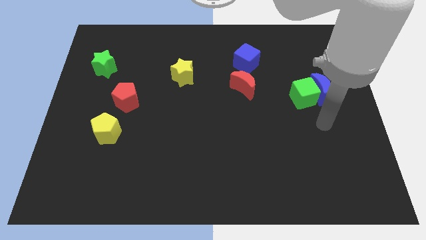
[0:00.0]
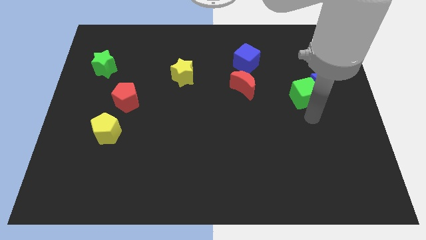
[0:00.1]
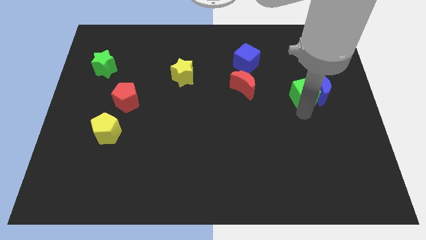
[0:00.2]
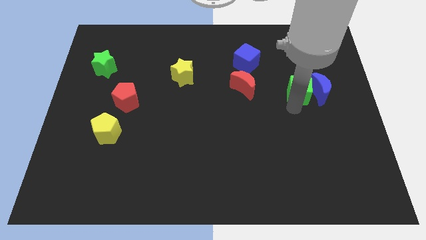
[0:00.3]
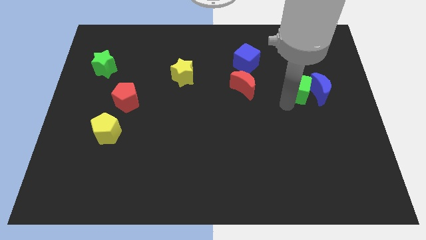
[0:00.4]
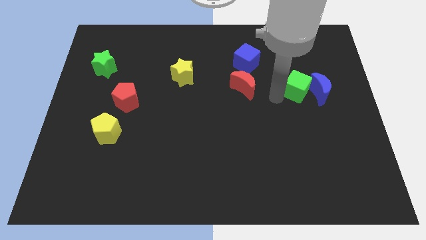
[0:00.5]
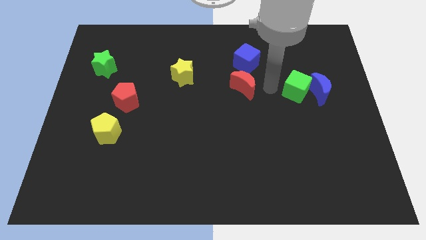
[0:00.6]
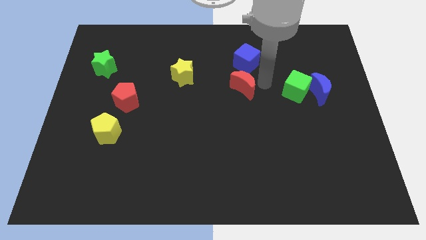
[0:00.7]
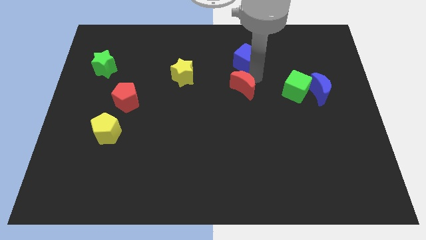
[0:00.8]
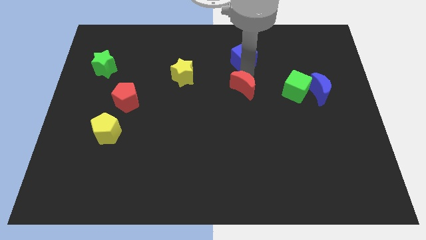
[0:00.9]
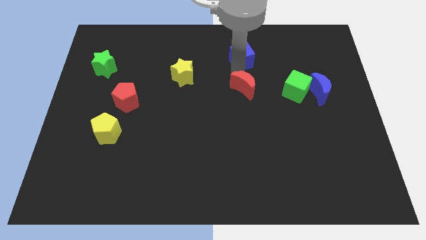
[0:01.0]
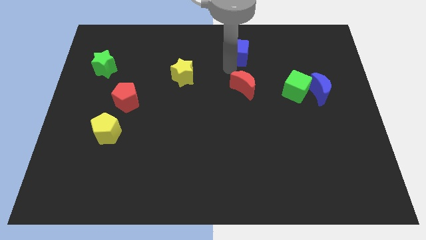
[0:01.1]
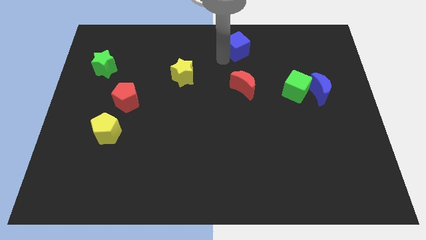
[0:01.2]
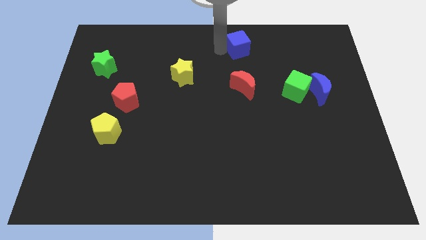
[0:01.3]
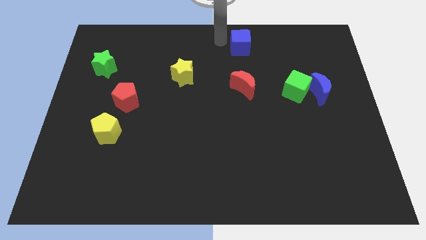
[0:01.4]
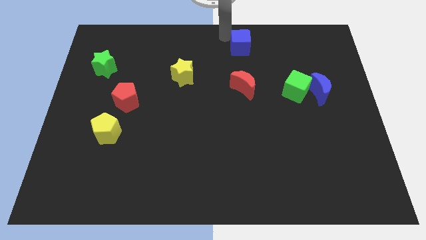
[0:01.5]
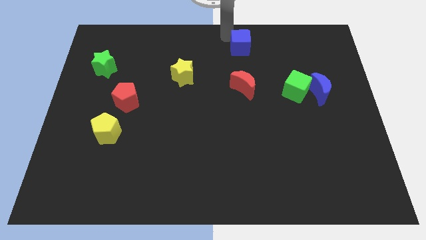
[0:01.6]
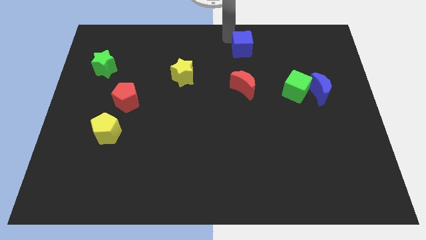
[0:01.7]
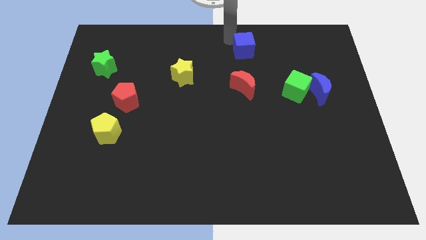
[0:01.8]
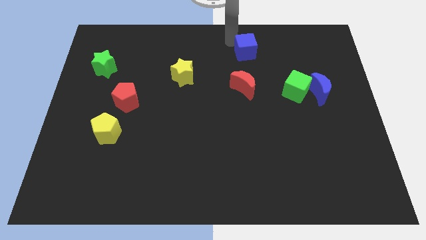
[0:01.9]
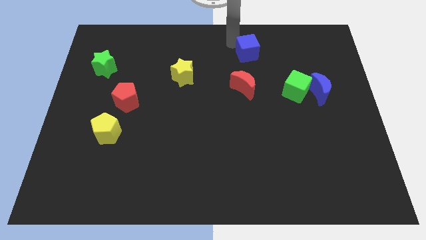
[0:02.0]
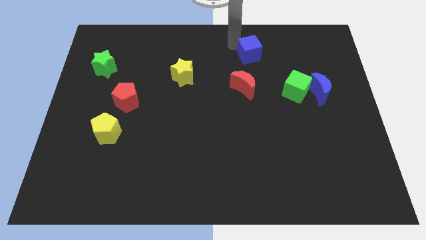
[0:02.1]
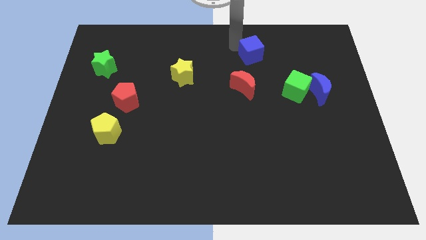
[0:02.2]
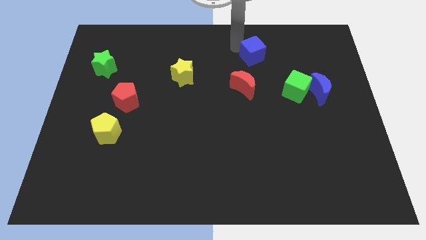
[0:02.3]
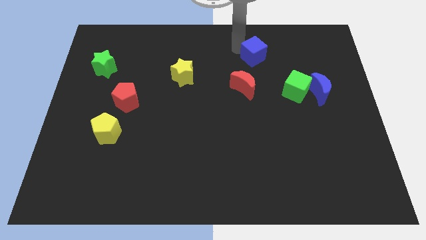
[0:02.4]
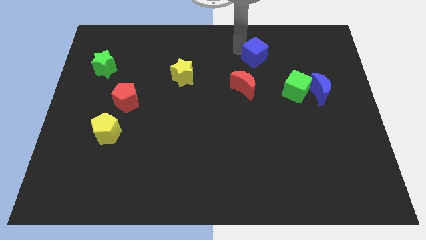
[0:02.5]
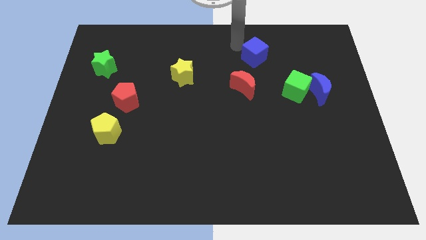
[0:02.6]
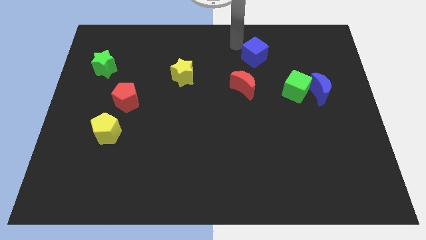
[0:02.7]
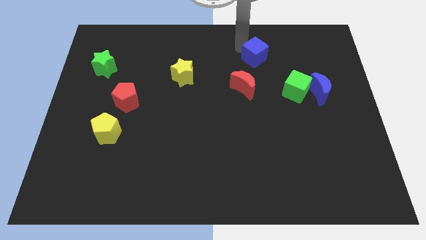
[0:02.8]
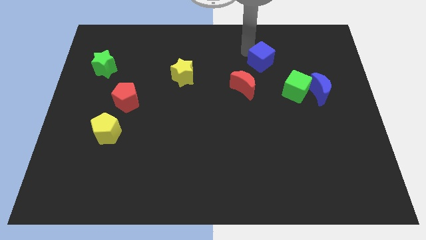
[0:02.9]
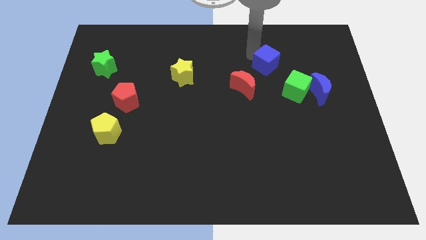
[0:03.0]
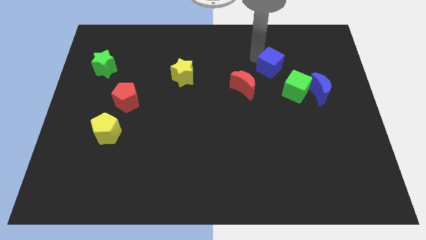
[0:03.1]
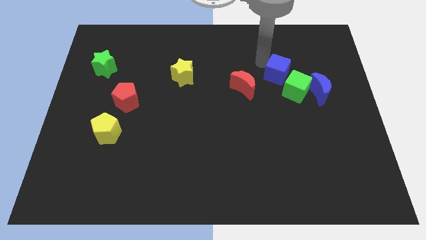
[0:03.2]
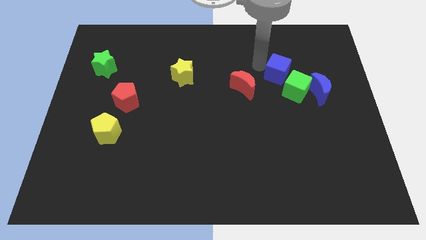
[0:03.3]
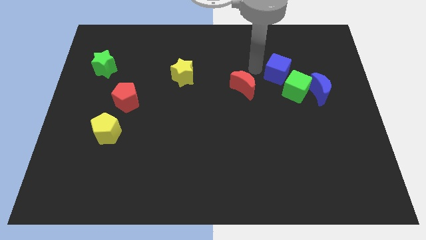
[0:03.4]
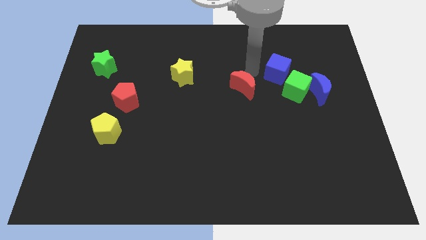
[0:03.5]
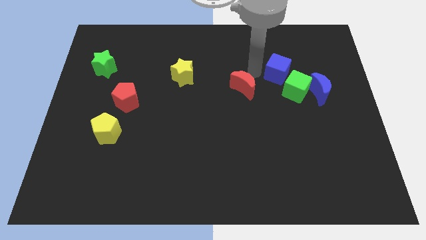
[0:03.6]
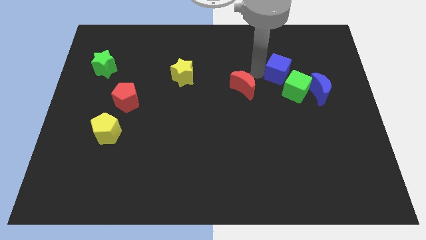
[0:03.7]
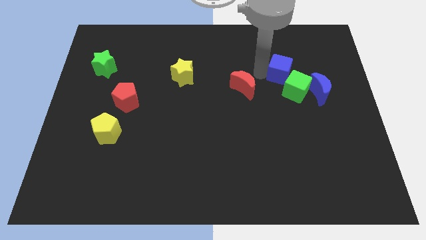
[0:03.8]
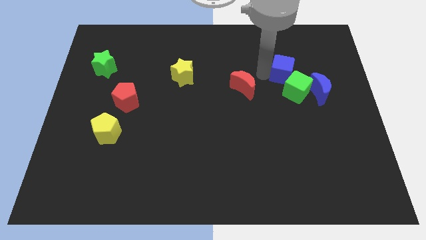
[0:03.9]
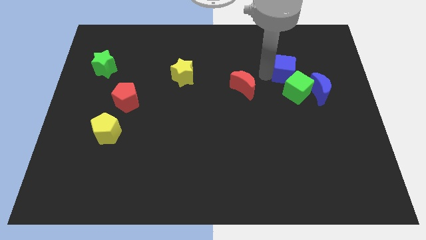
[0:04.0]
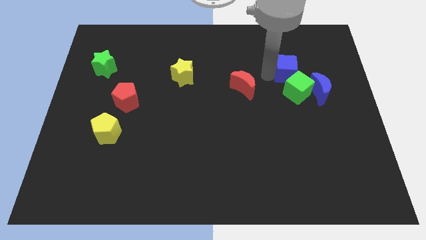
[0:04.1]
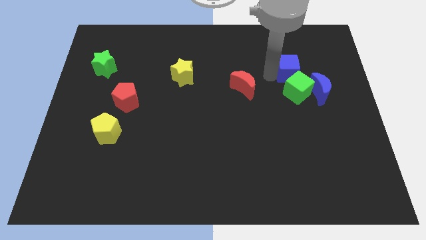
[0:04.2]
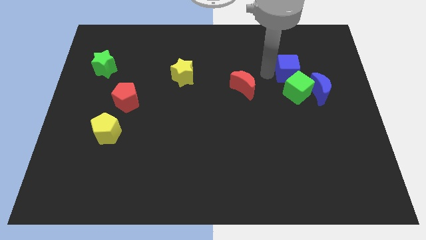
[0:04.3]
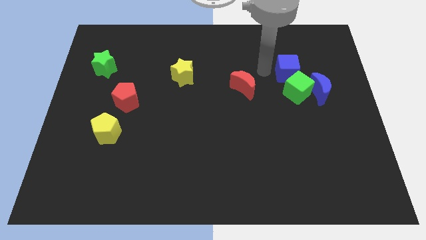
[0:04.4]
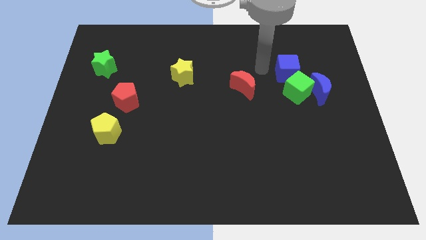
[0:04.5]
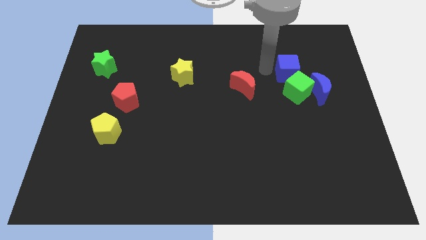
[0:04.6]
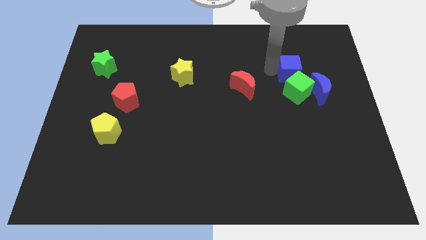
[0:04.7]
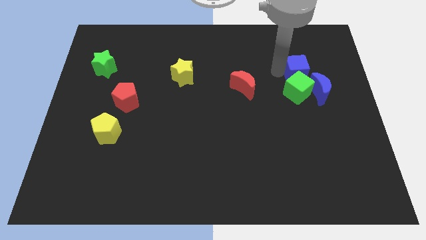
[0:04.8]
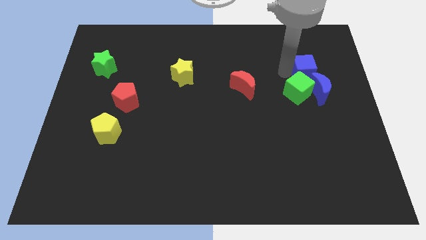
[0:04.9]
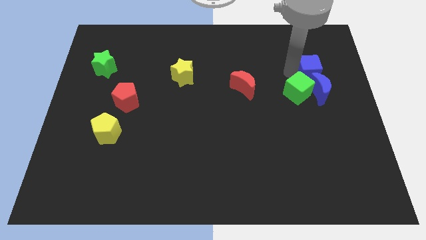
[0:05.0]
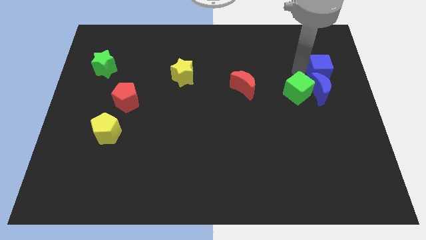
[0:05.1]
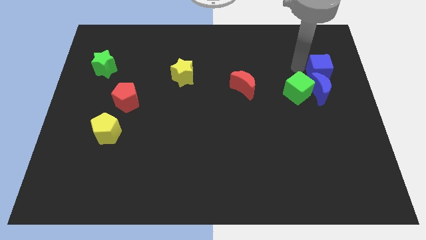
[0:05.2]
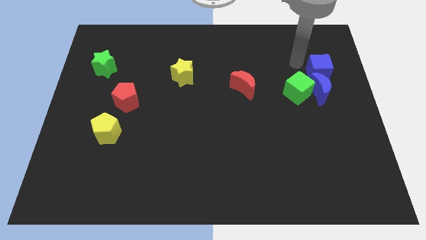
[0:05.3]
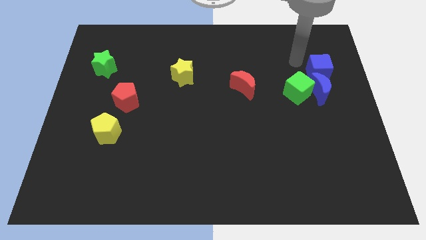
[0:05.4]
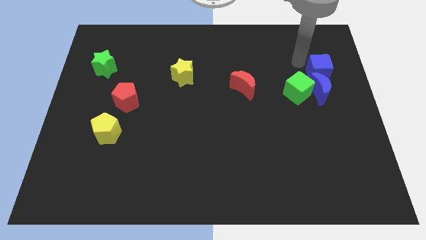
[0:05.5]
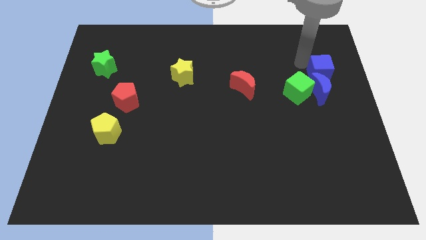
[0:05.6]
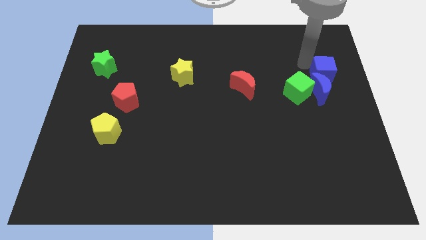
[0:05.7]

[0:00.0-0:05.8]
put the blue cube to the right side of the board

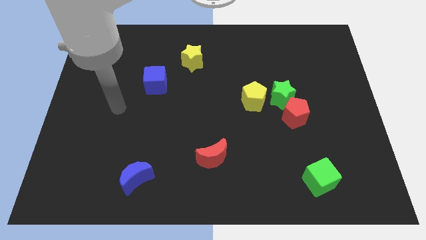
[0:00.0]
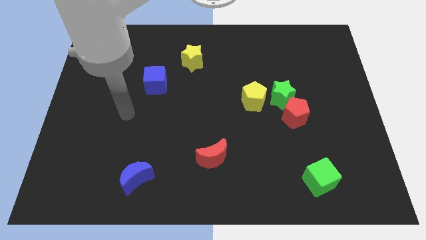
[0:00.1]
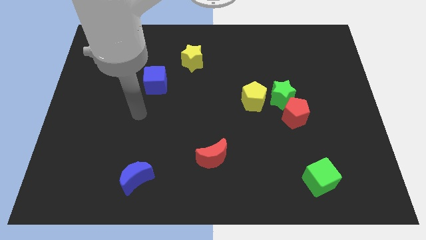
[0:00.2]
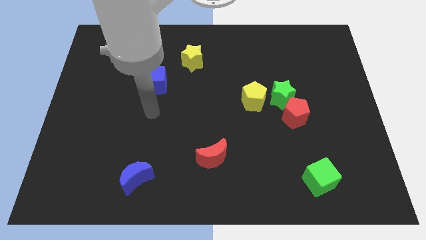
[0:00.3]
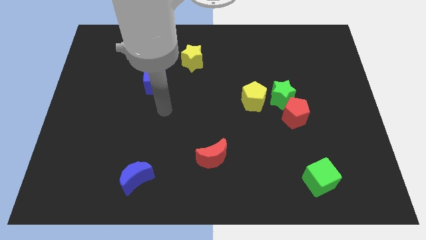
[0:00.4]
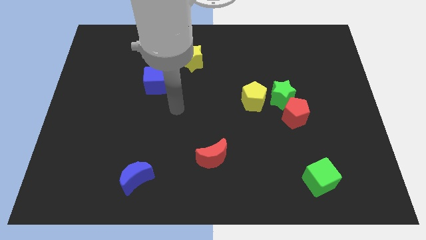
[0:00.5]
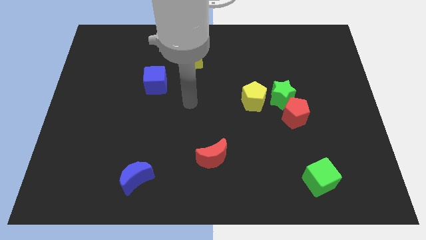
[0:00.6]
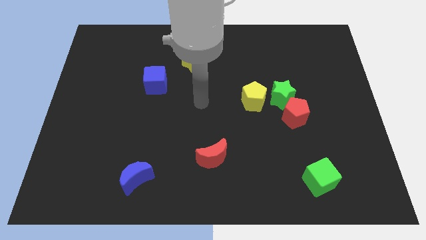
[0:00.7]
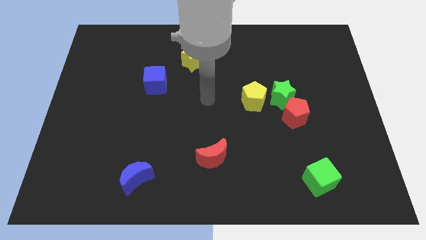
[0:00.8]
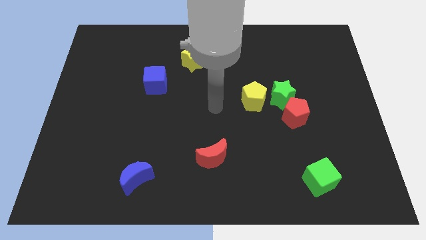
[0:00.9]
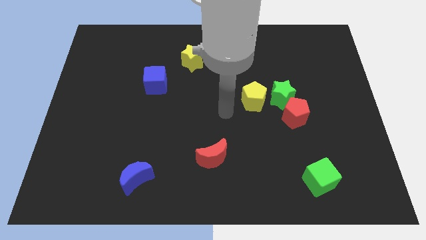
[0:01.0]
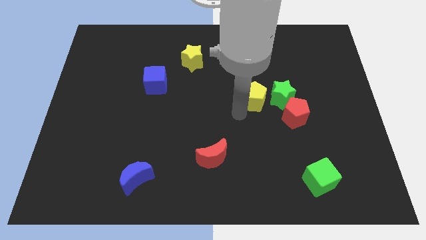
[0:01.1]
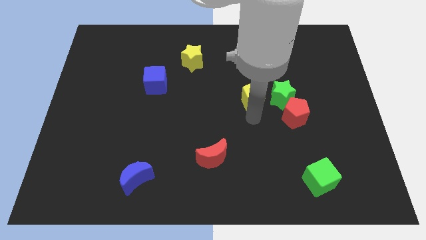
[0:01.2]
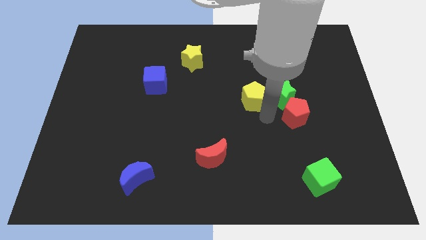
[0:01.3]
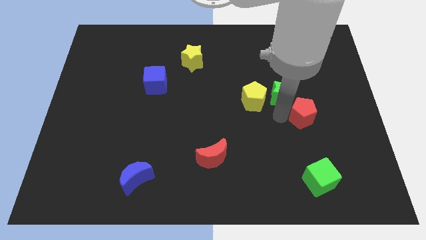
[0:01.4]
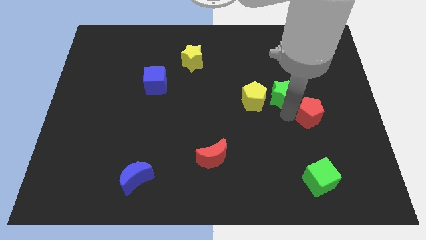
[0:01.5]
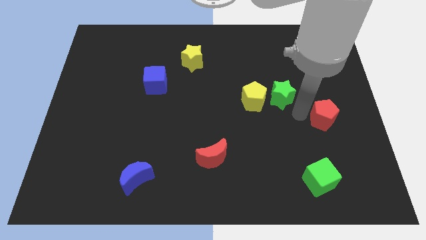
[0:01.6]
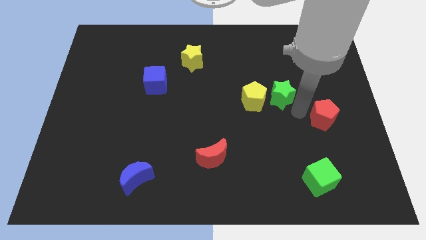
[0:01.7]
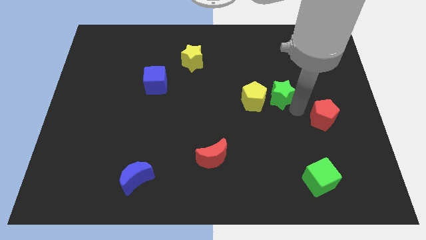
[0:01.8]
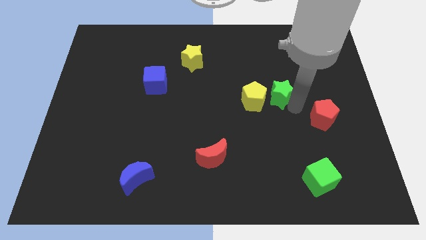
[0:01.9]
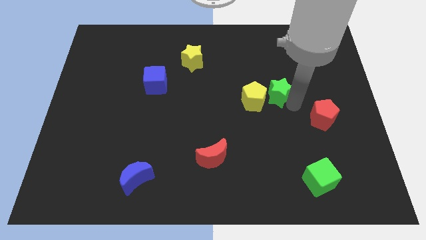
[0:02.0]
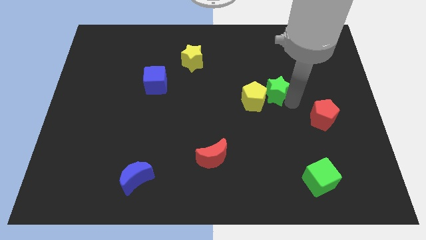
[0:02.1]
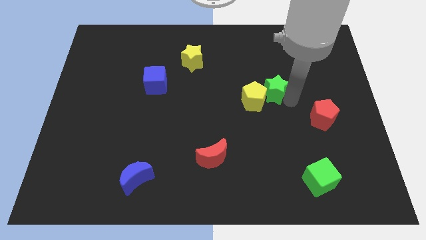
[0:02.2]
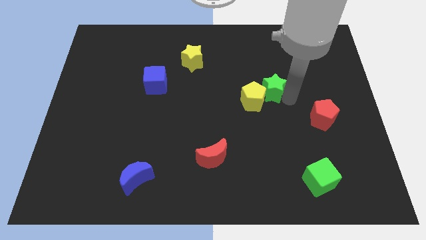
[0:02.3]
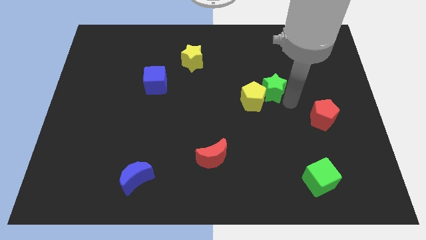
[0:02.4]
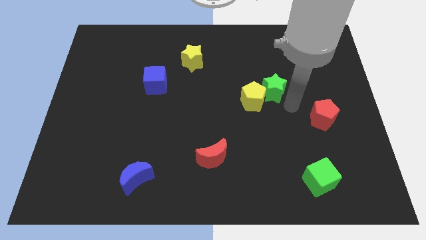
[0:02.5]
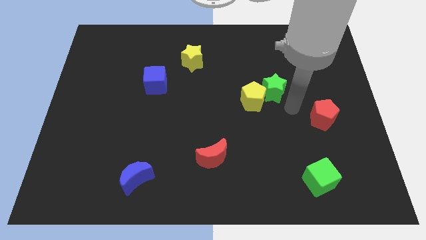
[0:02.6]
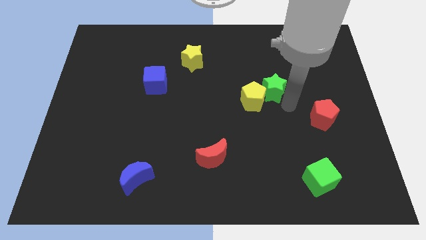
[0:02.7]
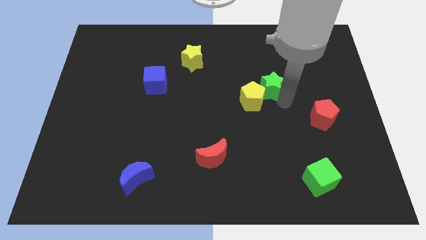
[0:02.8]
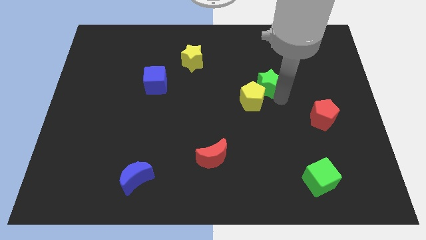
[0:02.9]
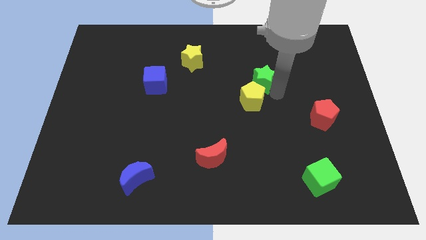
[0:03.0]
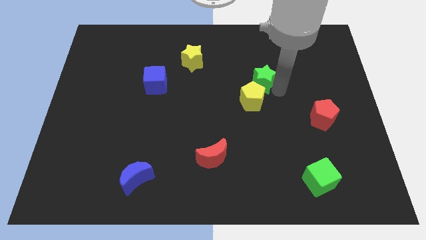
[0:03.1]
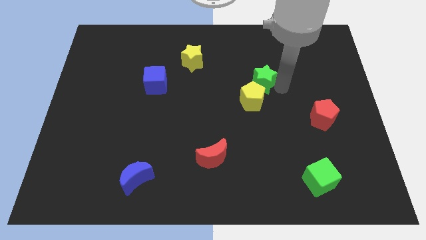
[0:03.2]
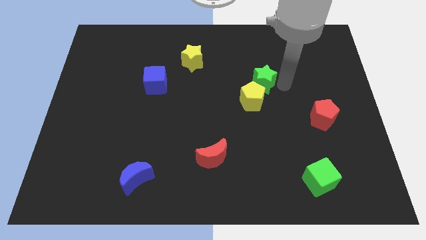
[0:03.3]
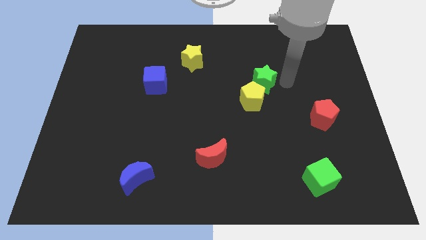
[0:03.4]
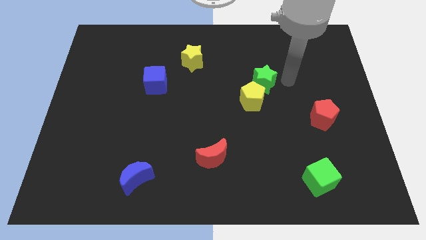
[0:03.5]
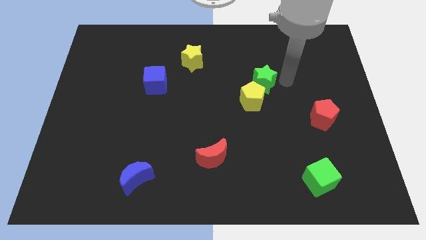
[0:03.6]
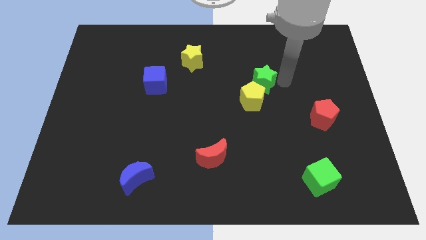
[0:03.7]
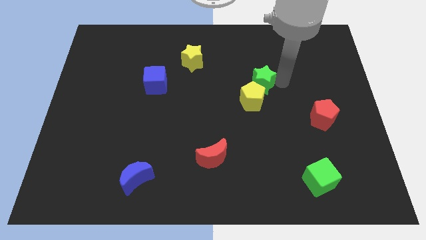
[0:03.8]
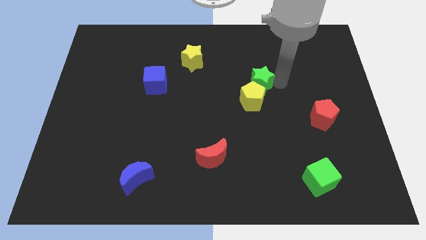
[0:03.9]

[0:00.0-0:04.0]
move the green star to the middle of the board
